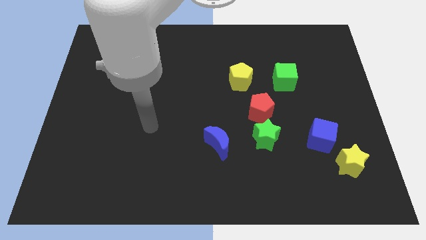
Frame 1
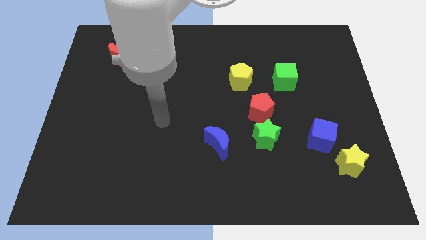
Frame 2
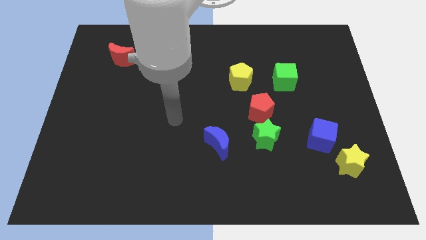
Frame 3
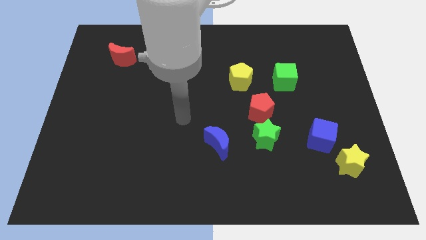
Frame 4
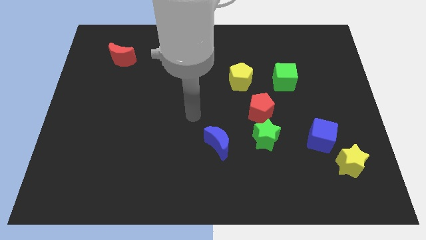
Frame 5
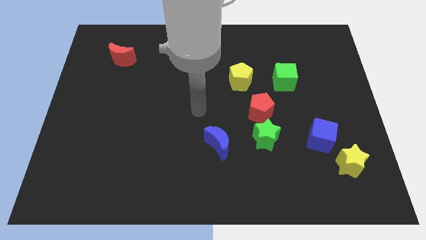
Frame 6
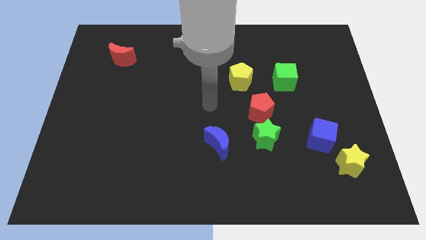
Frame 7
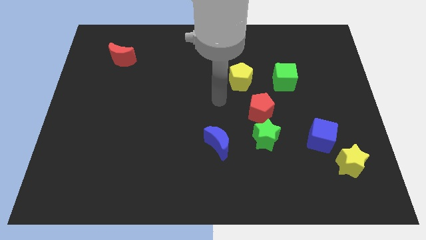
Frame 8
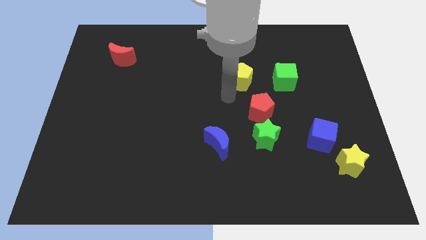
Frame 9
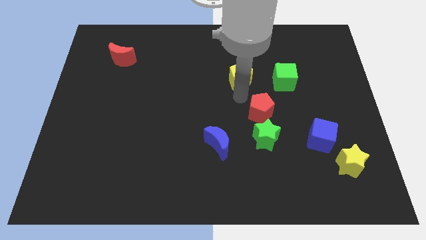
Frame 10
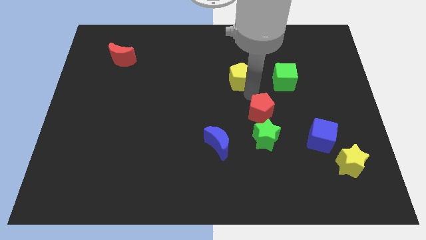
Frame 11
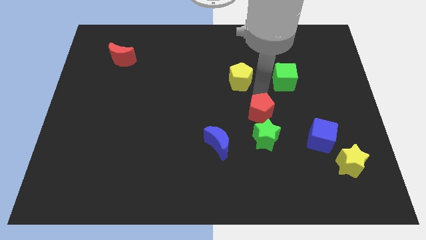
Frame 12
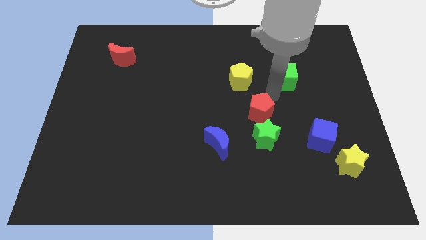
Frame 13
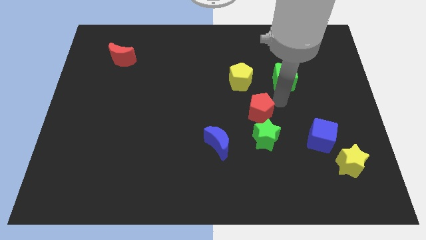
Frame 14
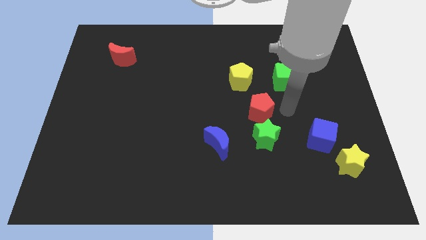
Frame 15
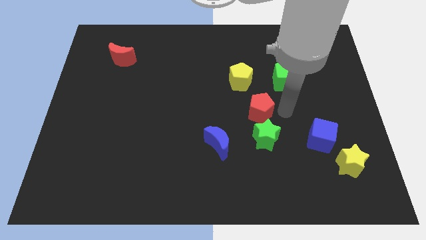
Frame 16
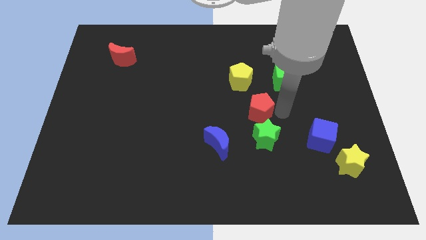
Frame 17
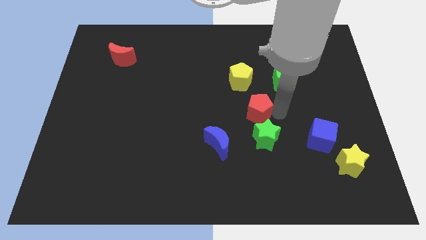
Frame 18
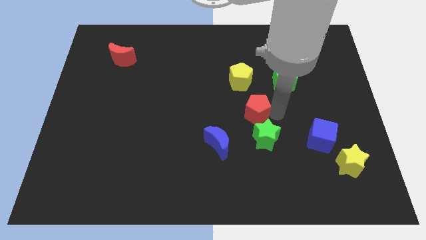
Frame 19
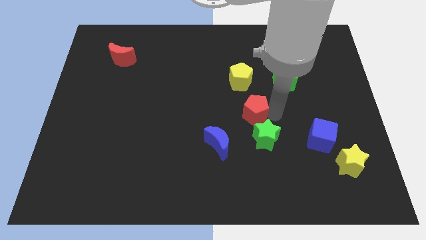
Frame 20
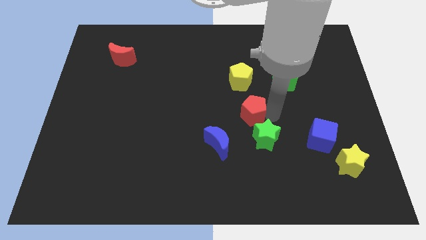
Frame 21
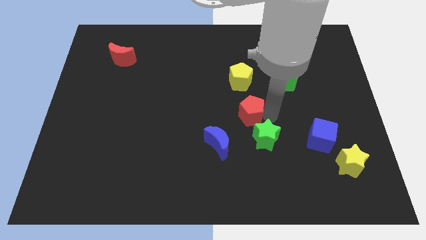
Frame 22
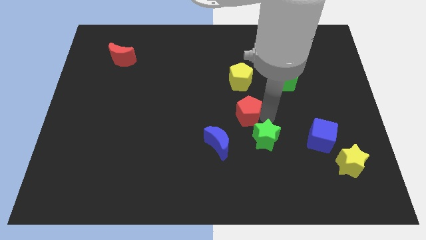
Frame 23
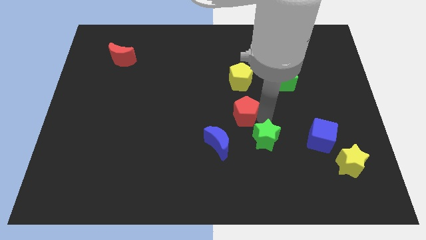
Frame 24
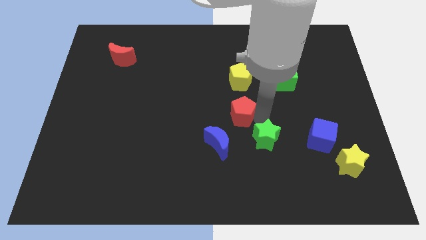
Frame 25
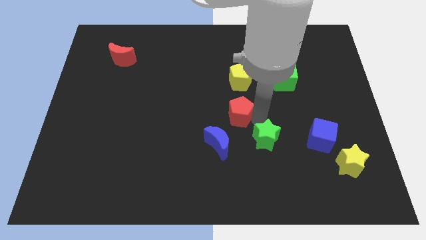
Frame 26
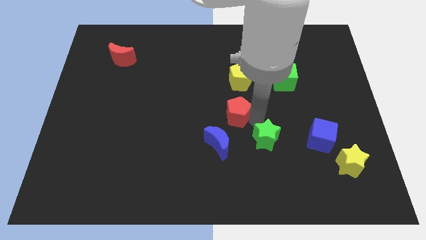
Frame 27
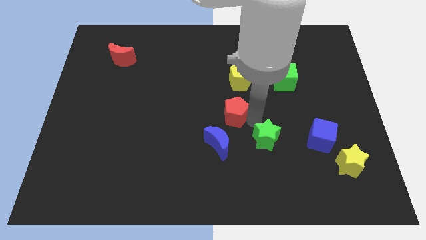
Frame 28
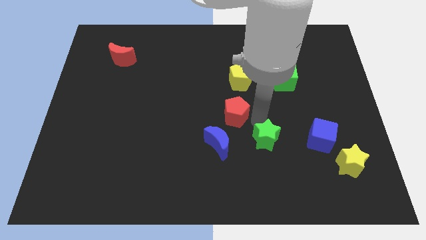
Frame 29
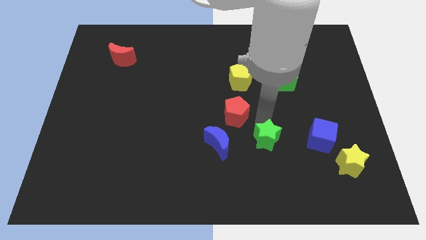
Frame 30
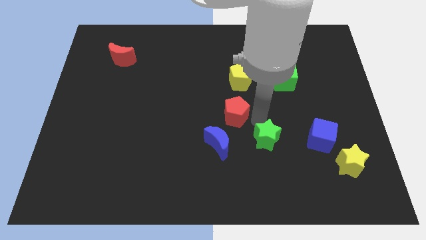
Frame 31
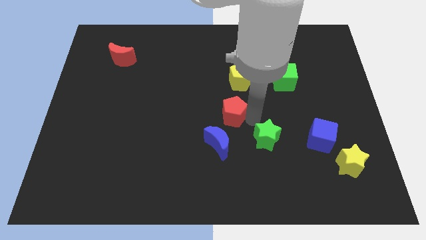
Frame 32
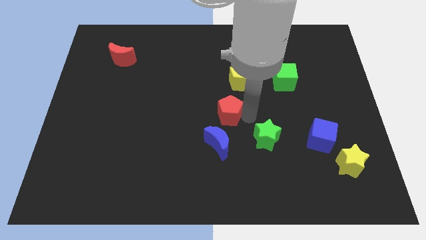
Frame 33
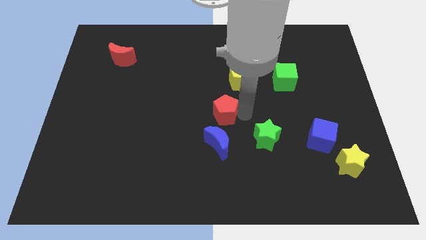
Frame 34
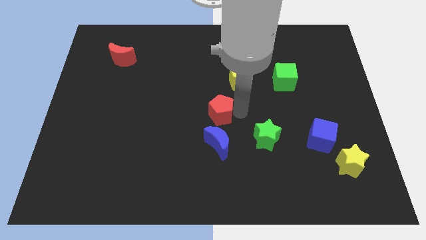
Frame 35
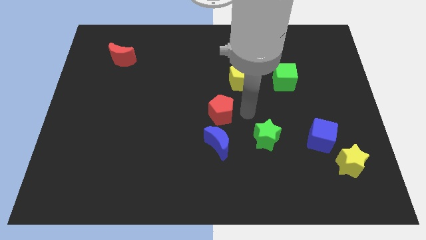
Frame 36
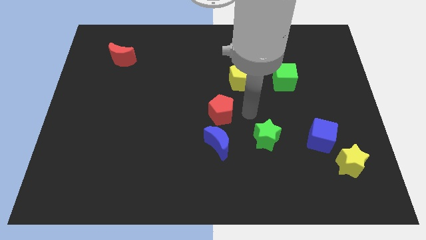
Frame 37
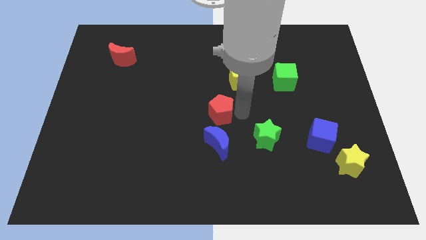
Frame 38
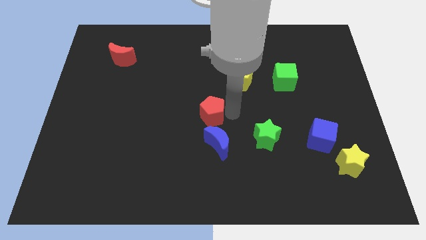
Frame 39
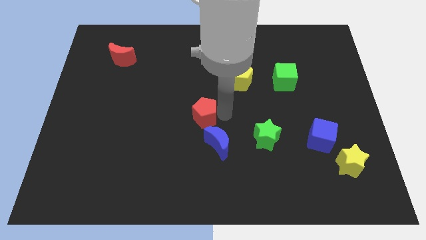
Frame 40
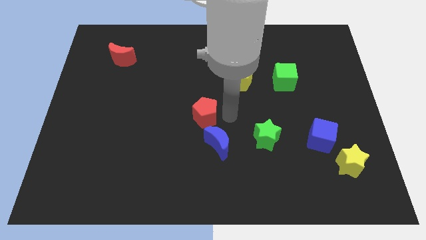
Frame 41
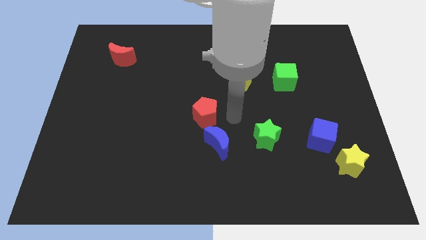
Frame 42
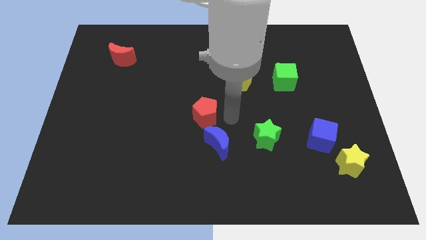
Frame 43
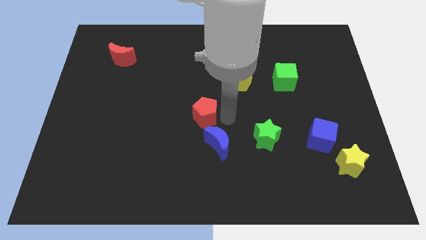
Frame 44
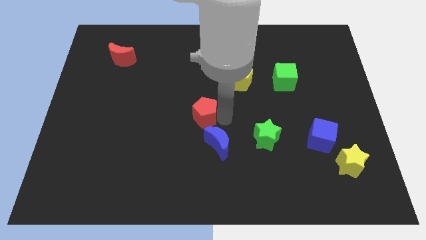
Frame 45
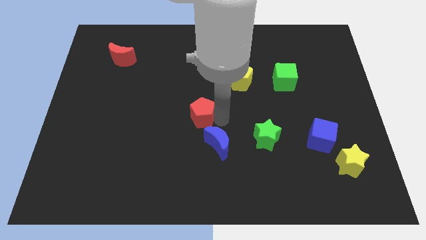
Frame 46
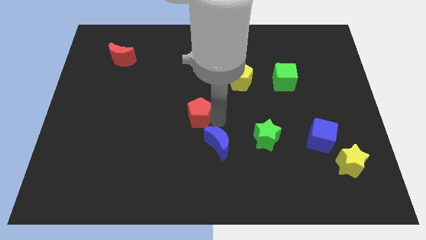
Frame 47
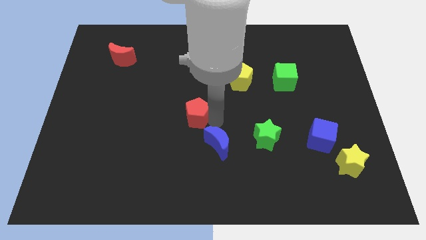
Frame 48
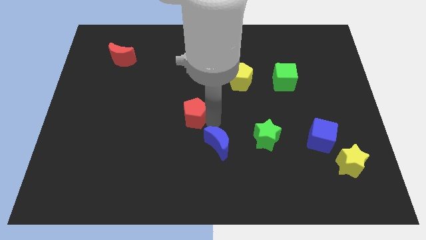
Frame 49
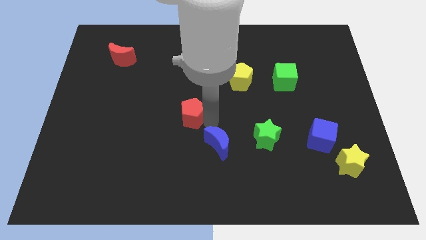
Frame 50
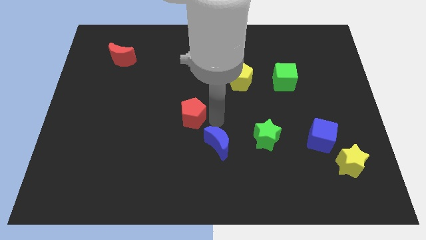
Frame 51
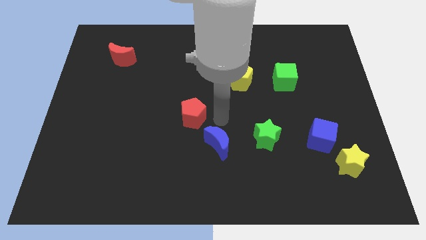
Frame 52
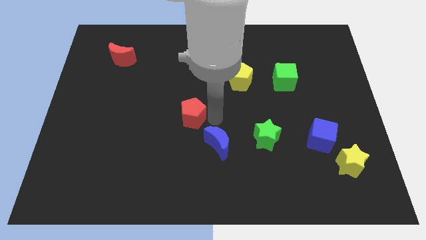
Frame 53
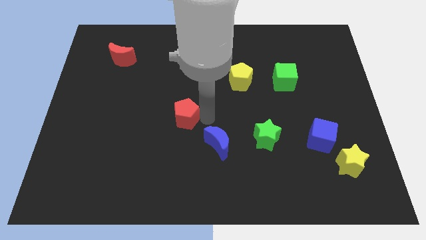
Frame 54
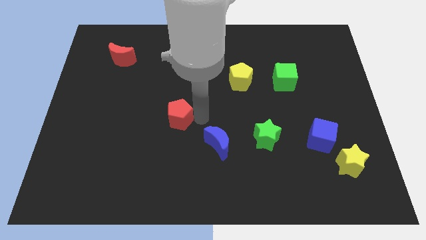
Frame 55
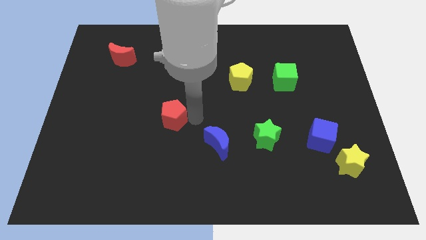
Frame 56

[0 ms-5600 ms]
slide the red pentagon to the left

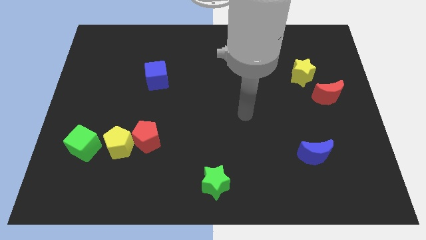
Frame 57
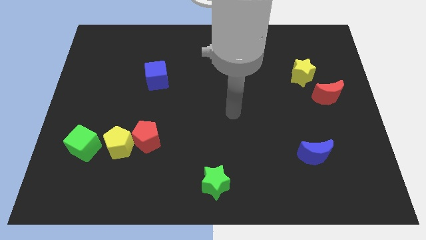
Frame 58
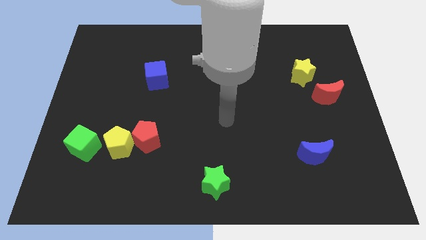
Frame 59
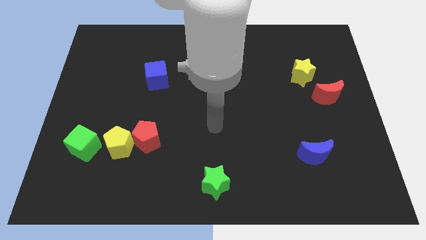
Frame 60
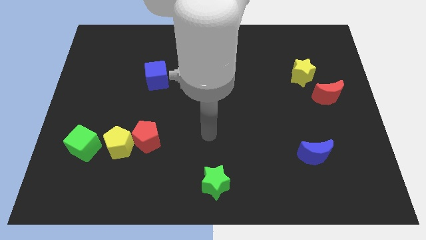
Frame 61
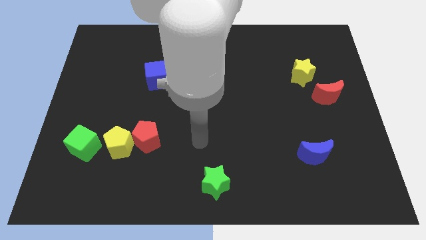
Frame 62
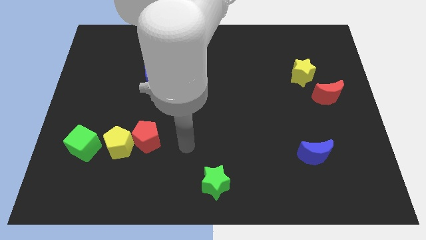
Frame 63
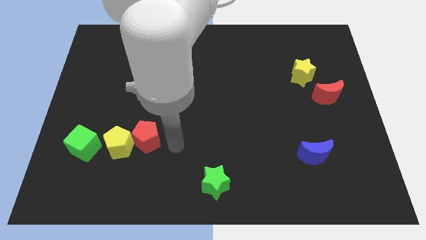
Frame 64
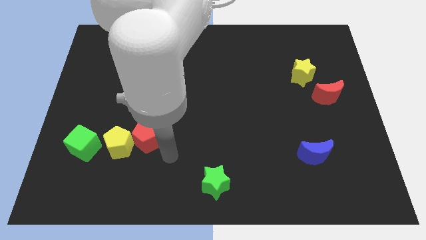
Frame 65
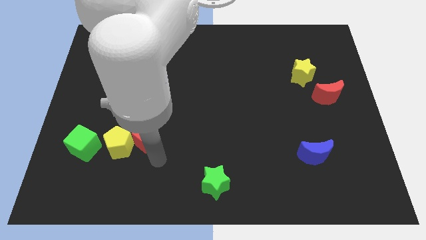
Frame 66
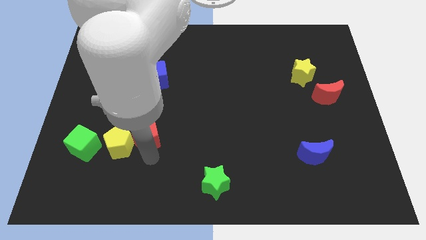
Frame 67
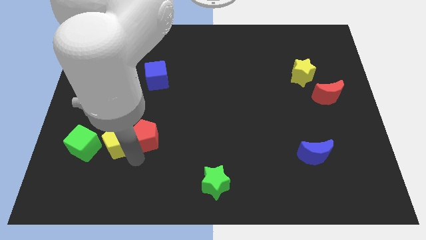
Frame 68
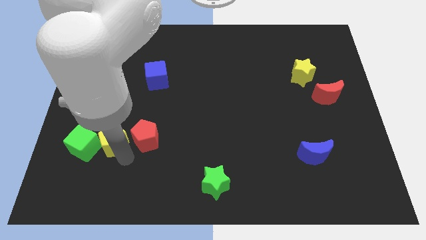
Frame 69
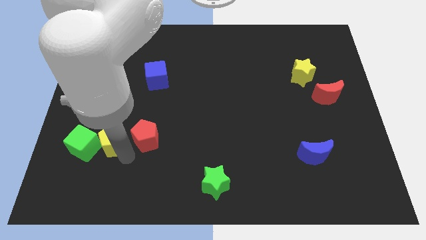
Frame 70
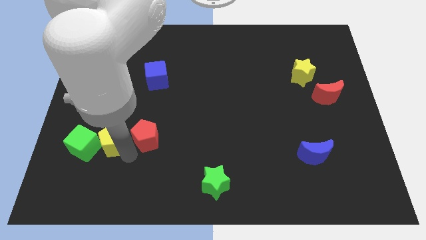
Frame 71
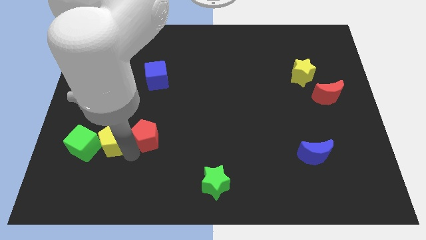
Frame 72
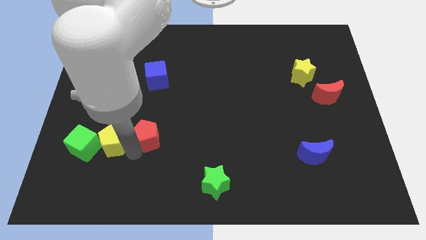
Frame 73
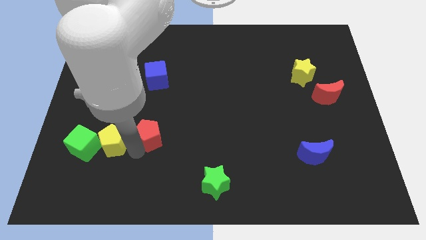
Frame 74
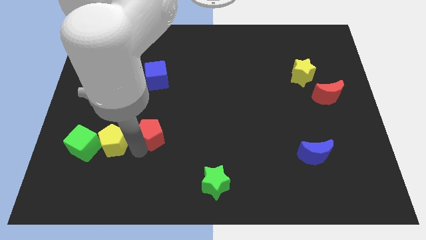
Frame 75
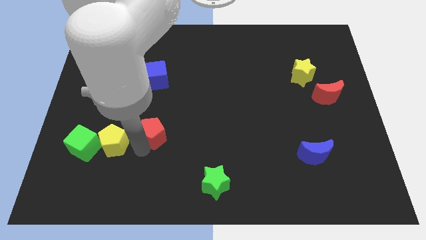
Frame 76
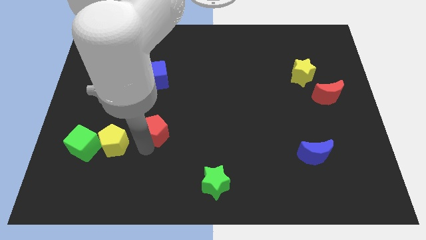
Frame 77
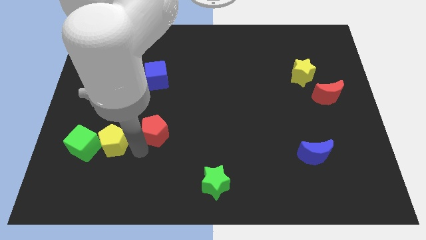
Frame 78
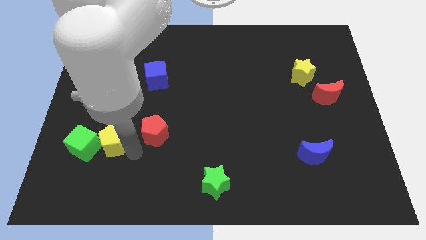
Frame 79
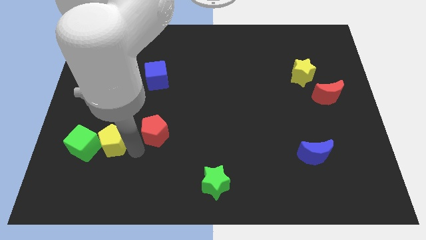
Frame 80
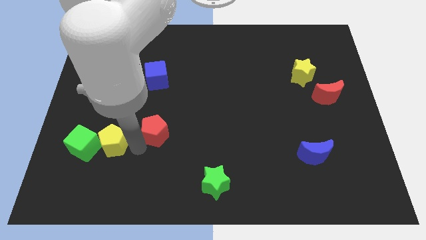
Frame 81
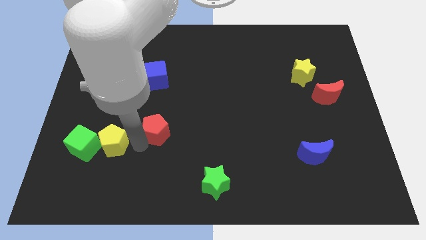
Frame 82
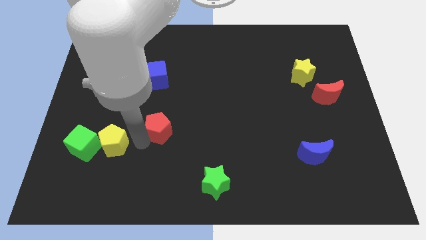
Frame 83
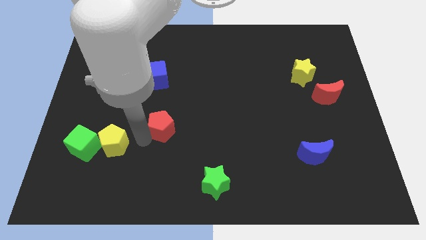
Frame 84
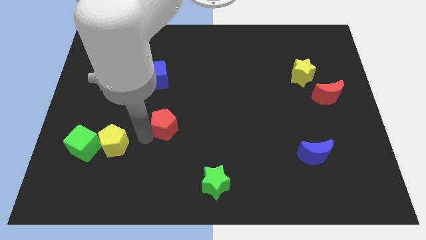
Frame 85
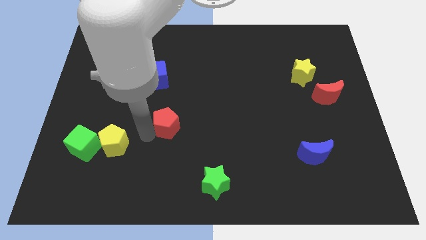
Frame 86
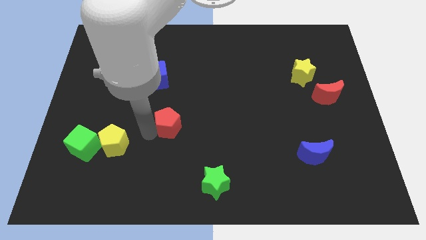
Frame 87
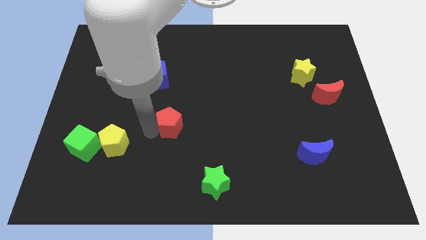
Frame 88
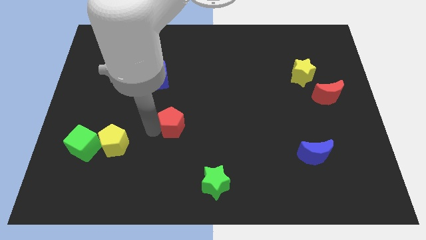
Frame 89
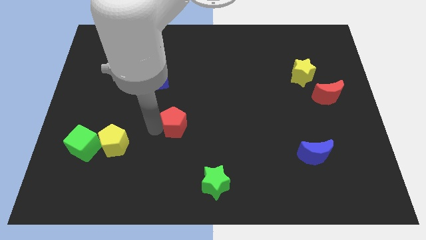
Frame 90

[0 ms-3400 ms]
push the red pentagon a little bit diagonally upwards and to the right
